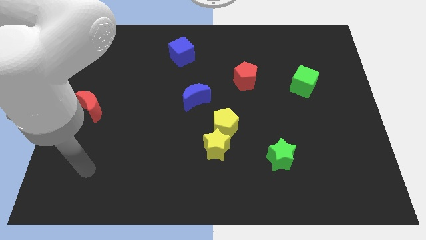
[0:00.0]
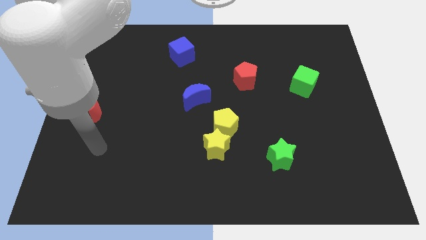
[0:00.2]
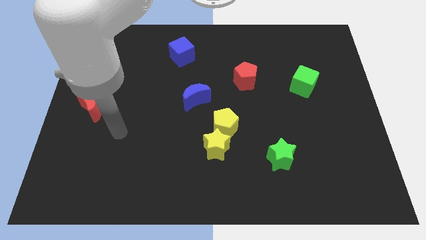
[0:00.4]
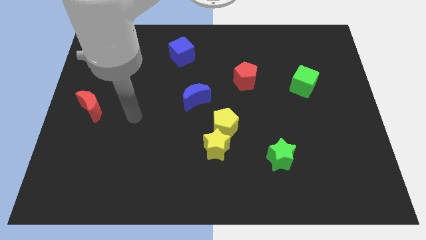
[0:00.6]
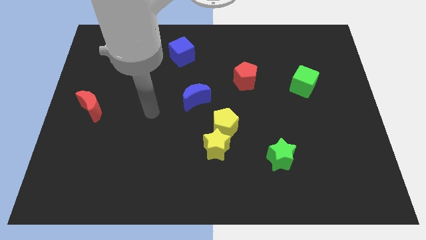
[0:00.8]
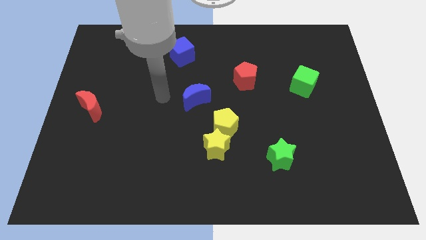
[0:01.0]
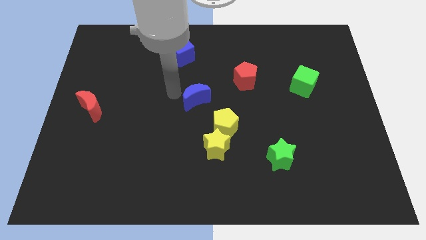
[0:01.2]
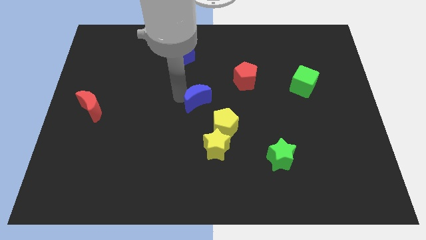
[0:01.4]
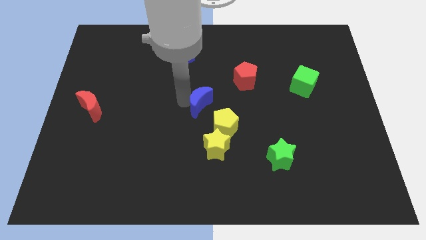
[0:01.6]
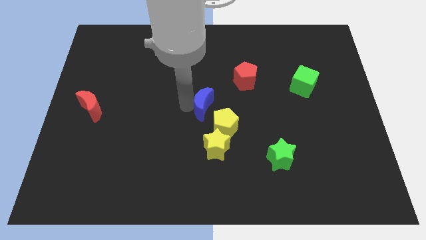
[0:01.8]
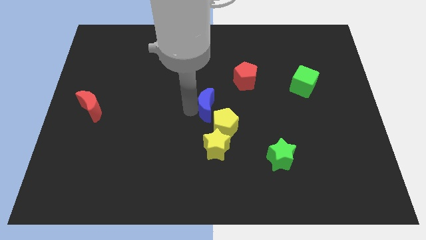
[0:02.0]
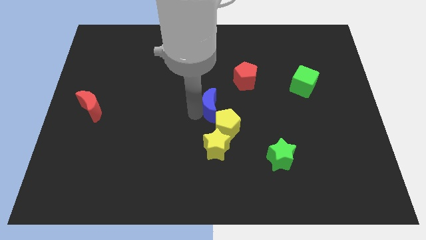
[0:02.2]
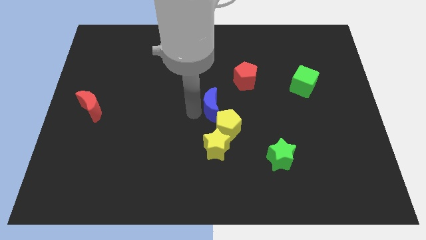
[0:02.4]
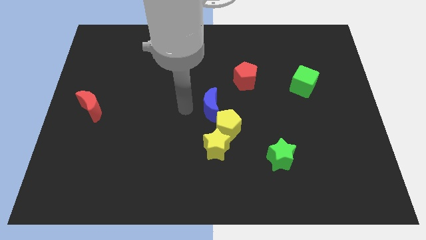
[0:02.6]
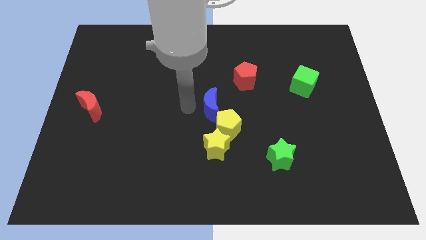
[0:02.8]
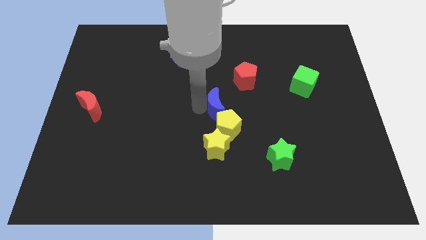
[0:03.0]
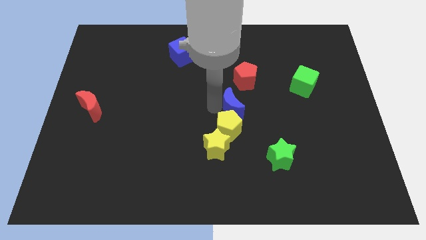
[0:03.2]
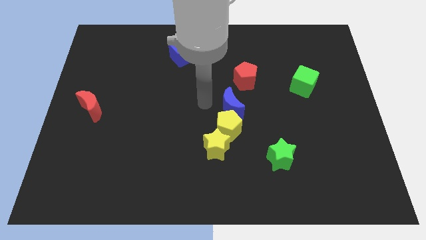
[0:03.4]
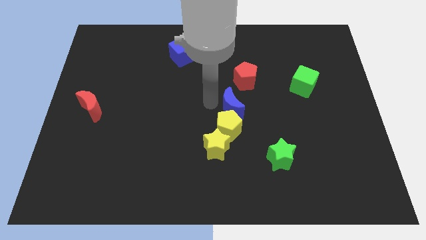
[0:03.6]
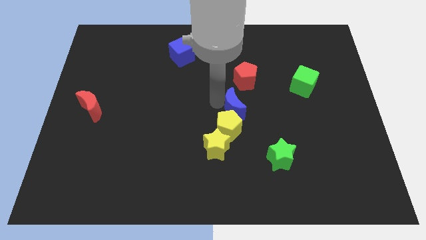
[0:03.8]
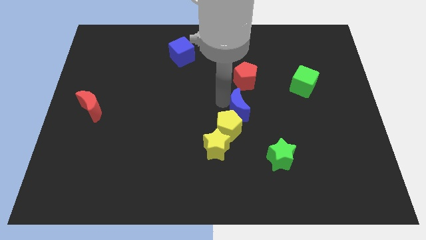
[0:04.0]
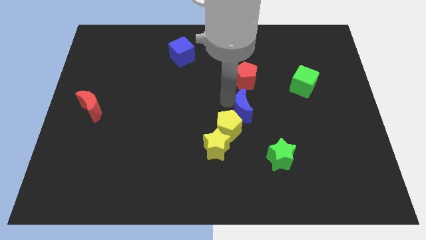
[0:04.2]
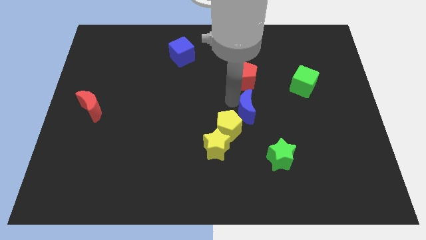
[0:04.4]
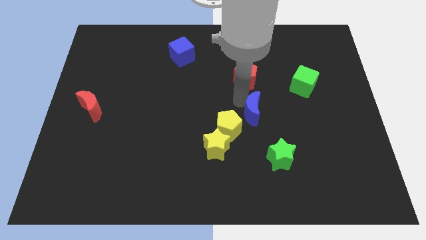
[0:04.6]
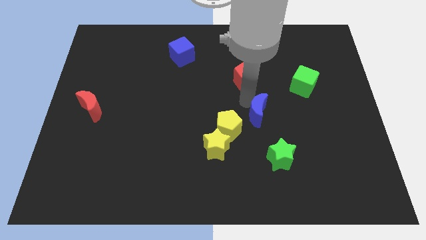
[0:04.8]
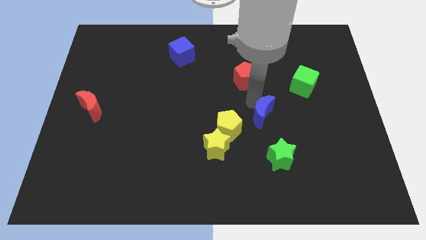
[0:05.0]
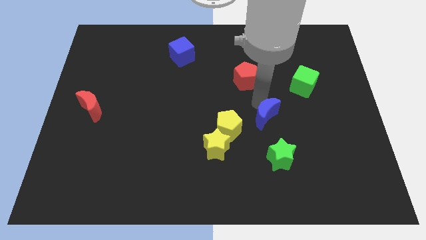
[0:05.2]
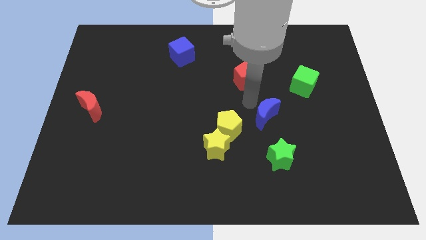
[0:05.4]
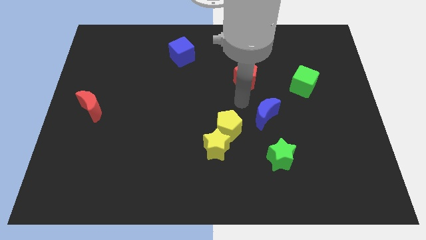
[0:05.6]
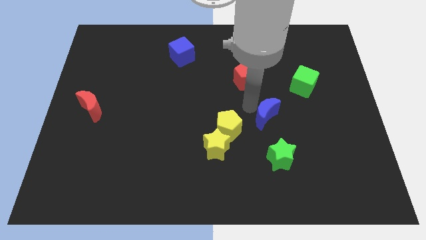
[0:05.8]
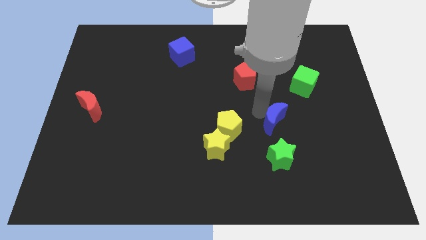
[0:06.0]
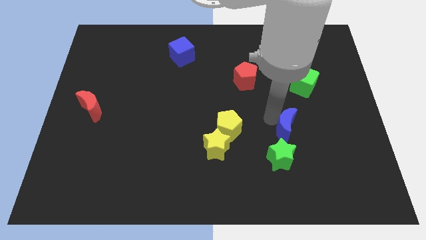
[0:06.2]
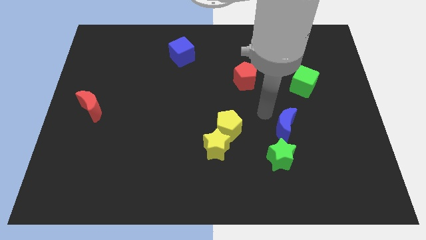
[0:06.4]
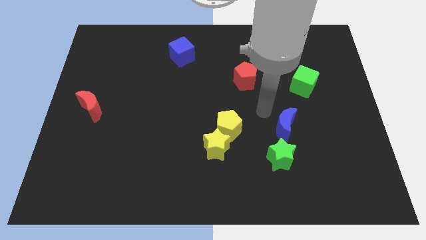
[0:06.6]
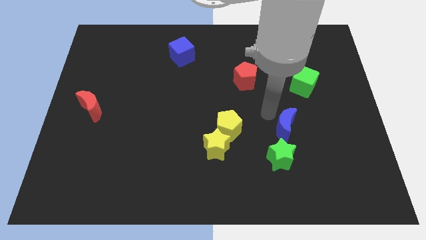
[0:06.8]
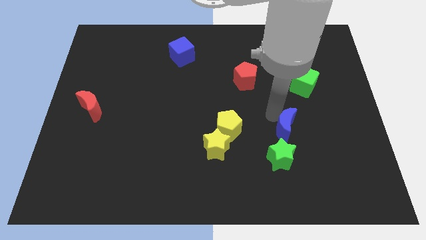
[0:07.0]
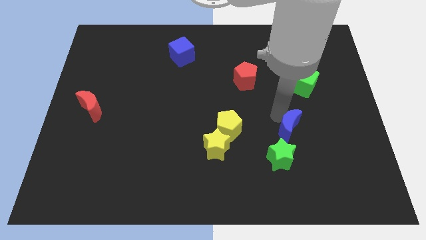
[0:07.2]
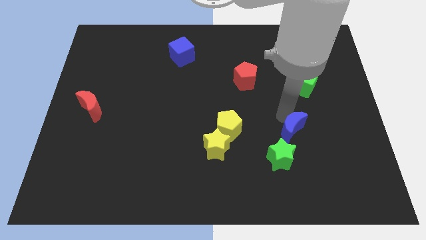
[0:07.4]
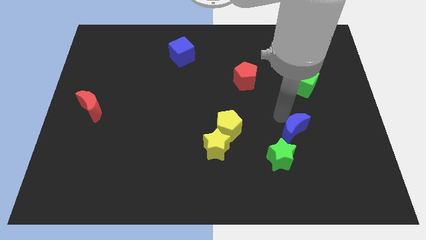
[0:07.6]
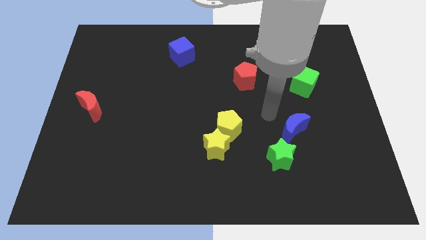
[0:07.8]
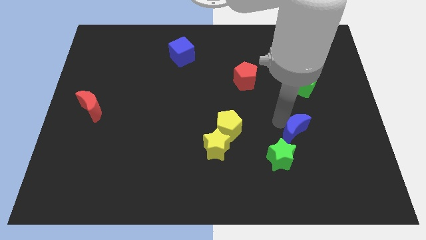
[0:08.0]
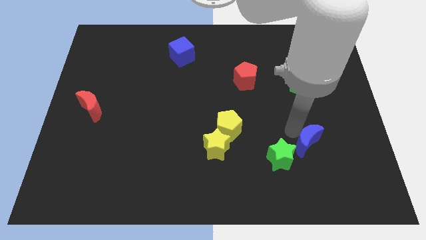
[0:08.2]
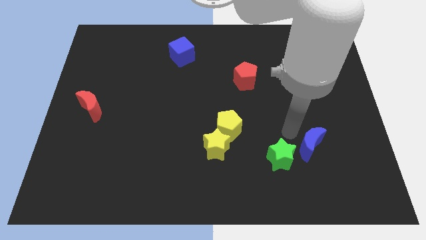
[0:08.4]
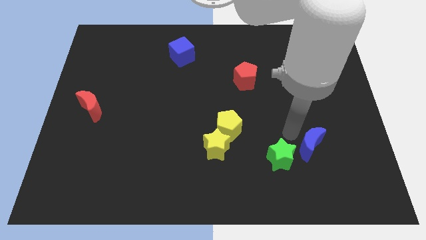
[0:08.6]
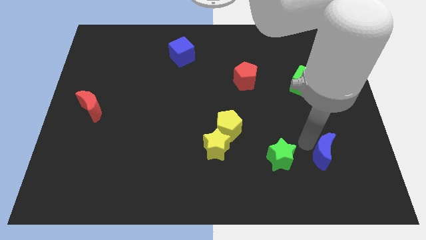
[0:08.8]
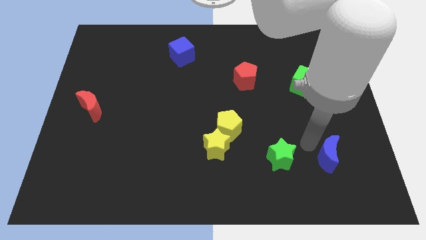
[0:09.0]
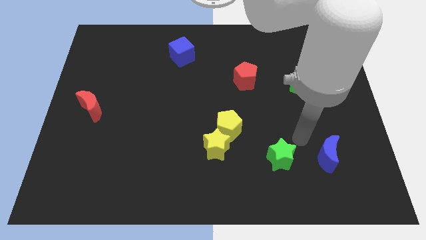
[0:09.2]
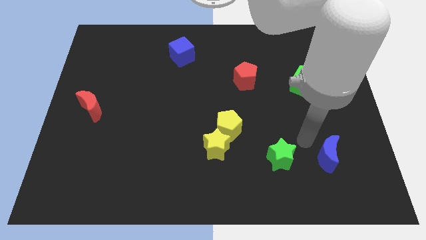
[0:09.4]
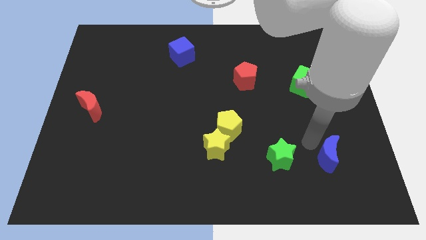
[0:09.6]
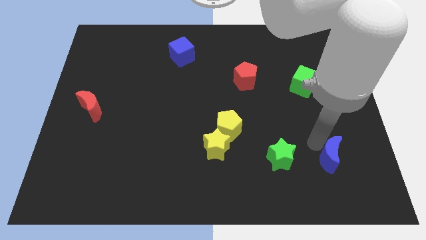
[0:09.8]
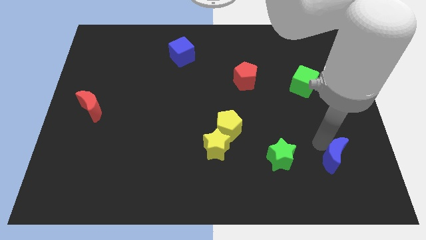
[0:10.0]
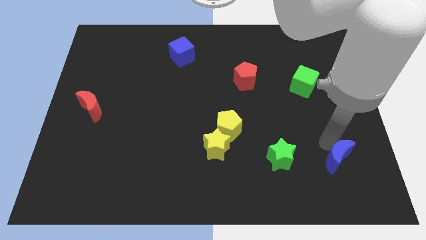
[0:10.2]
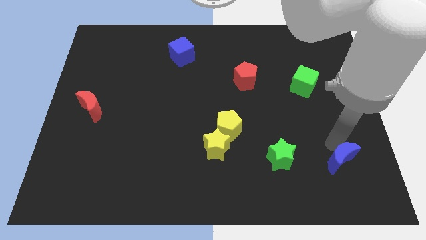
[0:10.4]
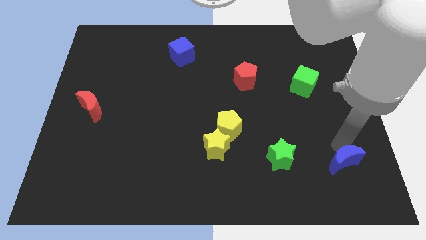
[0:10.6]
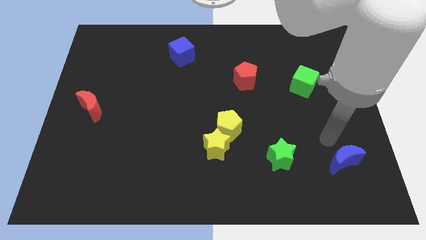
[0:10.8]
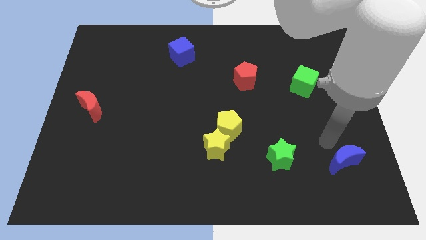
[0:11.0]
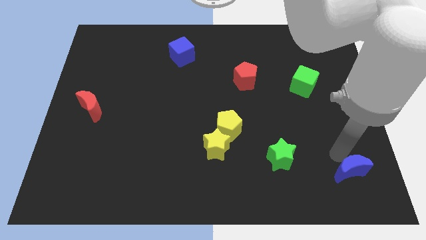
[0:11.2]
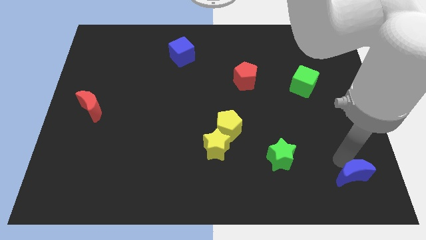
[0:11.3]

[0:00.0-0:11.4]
put the blue moon to the bottom right

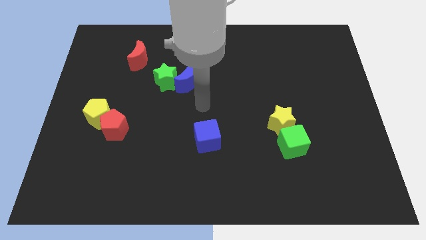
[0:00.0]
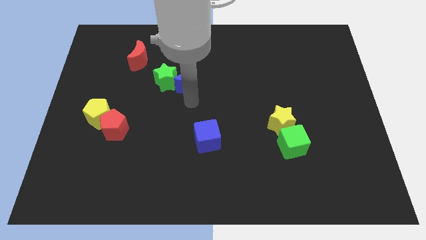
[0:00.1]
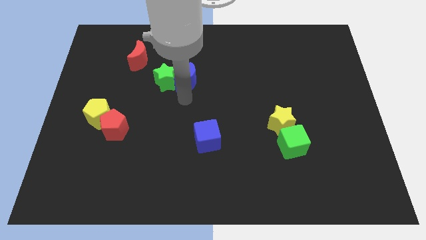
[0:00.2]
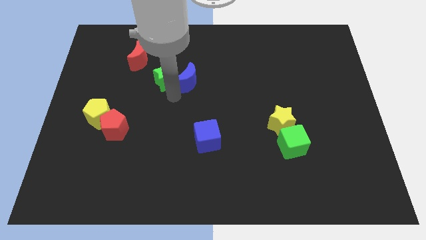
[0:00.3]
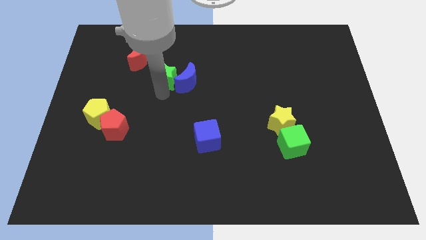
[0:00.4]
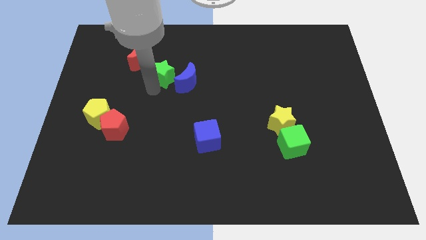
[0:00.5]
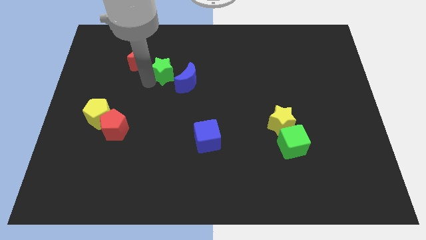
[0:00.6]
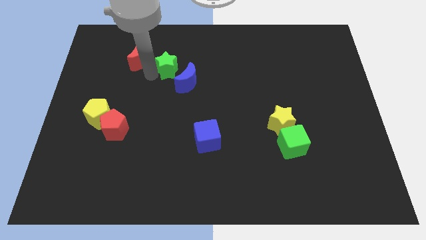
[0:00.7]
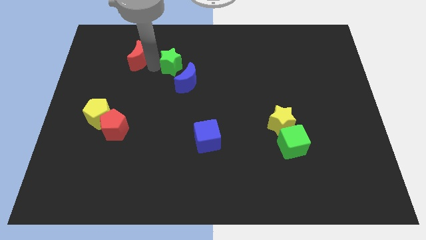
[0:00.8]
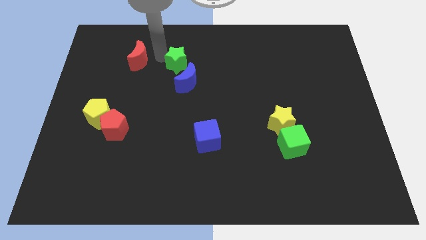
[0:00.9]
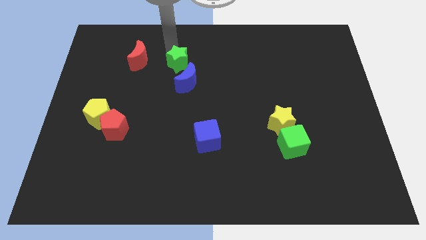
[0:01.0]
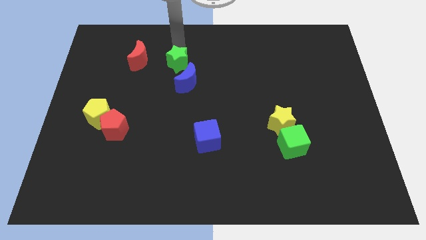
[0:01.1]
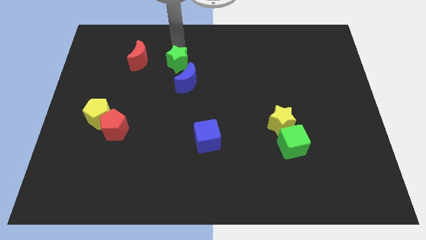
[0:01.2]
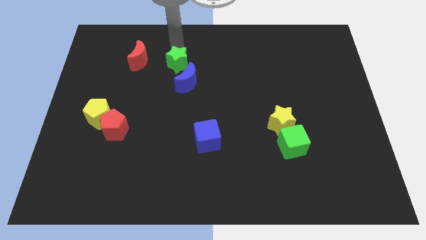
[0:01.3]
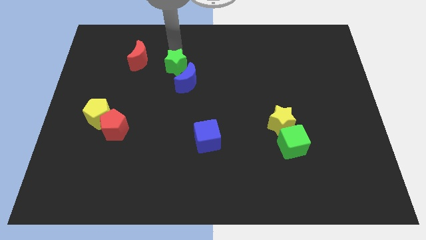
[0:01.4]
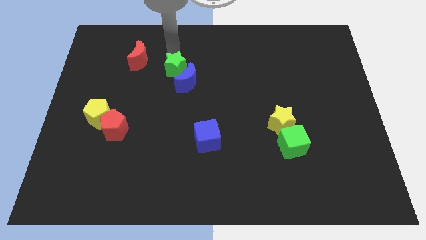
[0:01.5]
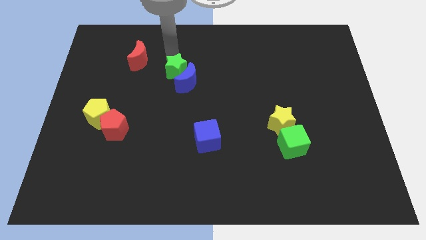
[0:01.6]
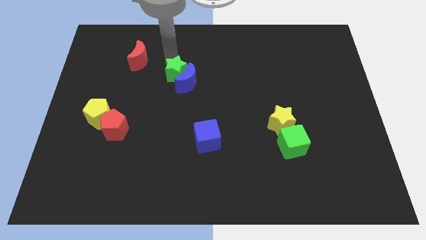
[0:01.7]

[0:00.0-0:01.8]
push the green star to the middle of the board
